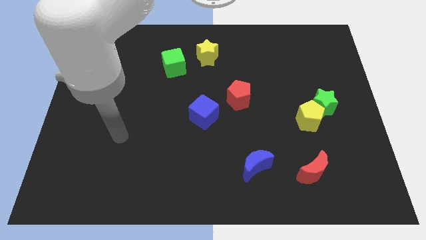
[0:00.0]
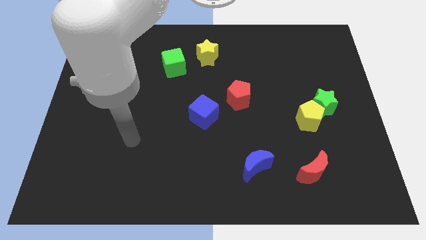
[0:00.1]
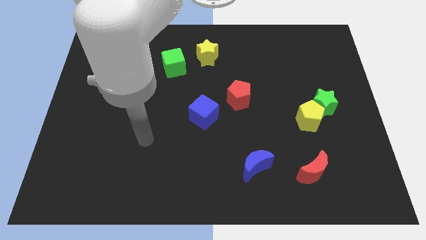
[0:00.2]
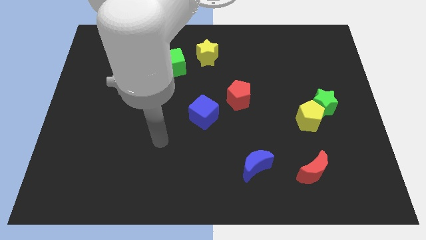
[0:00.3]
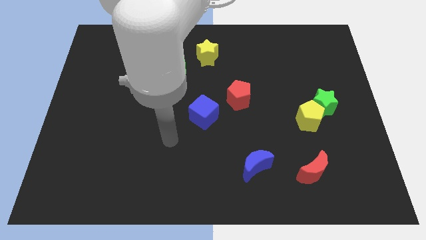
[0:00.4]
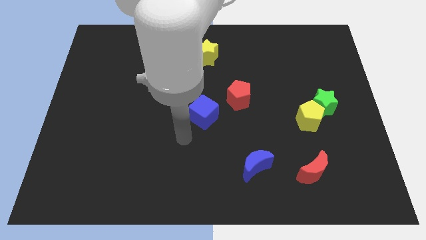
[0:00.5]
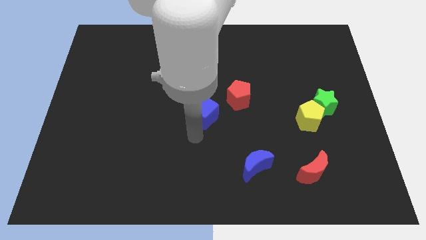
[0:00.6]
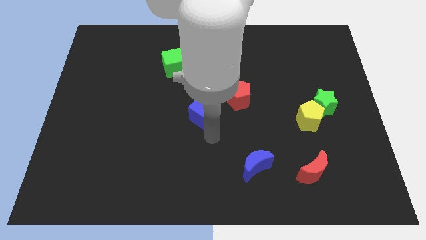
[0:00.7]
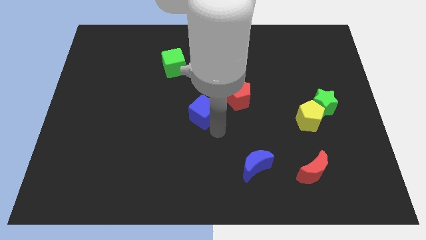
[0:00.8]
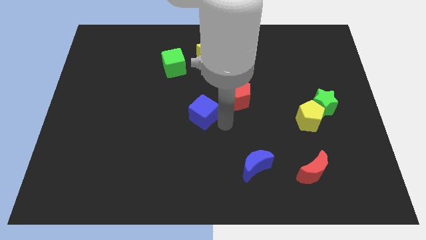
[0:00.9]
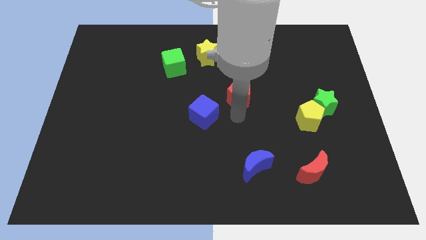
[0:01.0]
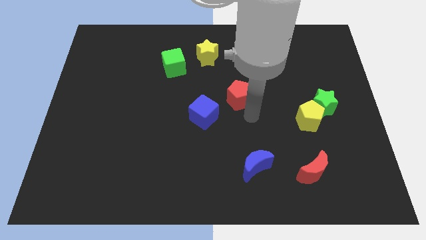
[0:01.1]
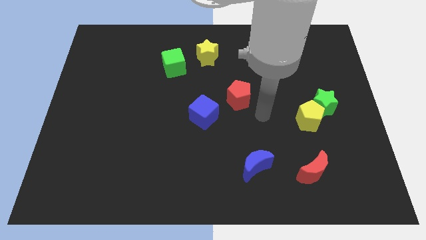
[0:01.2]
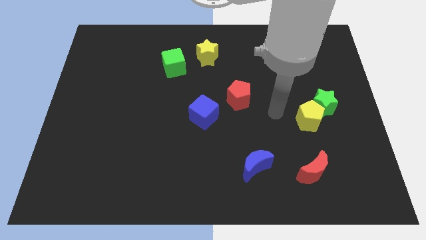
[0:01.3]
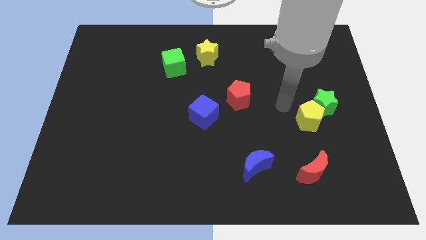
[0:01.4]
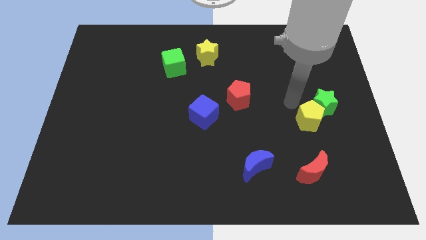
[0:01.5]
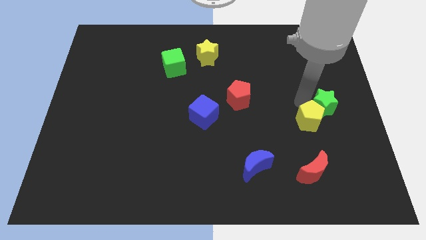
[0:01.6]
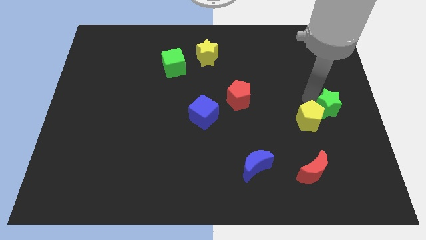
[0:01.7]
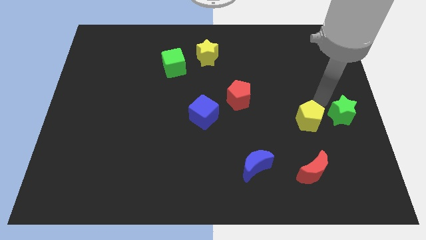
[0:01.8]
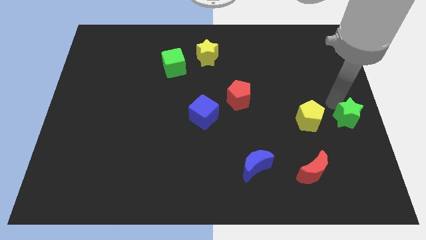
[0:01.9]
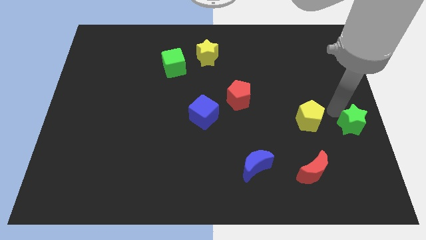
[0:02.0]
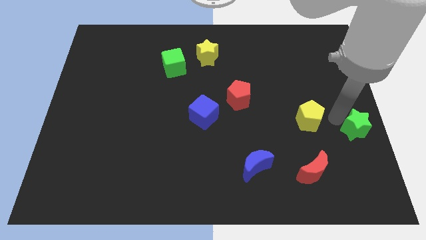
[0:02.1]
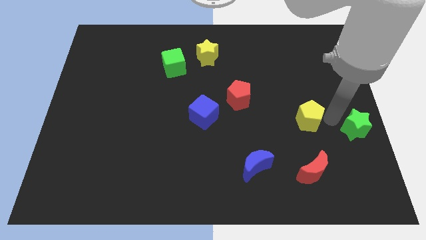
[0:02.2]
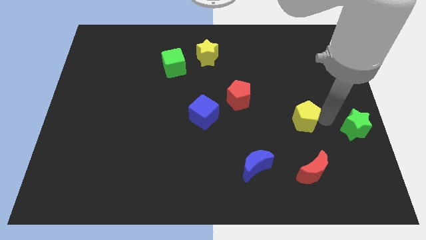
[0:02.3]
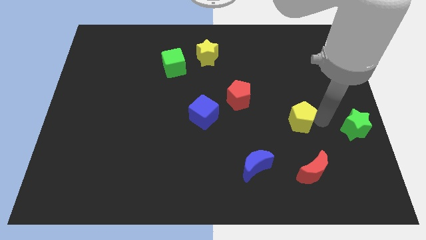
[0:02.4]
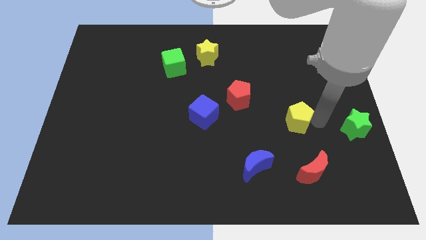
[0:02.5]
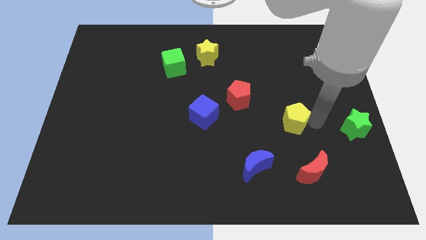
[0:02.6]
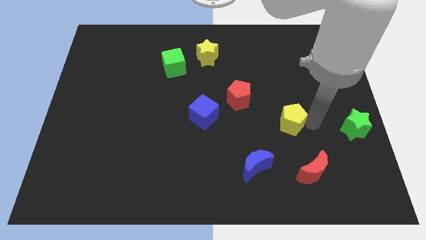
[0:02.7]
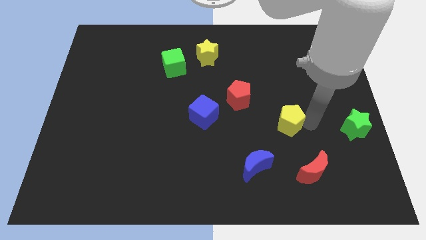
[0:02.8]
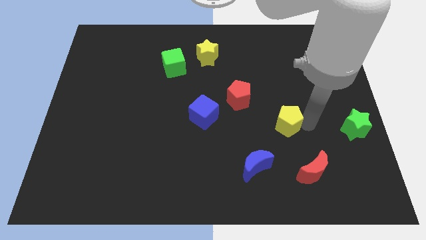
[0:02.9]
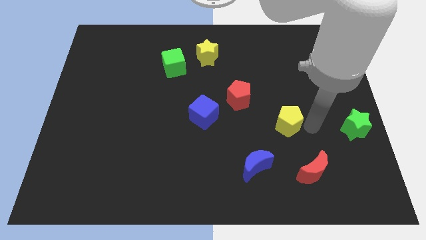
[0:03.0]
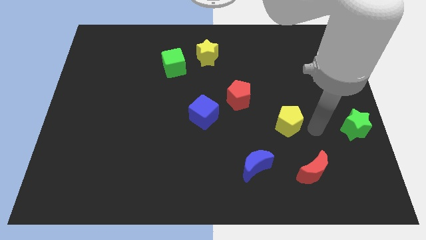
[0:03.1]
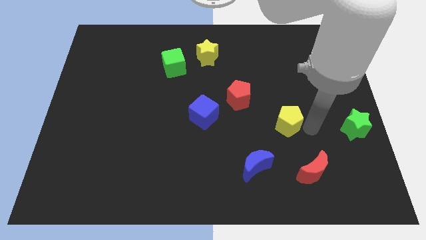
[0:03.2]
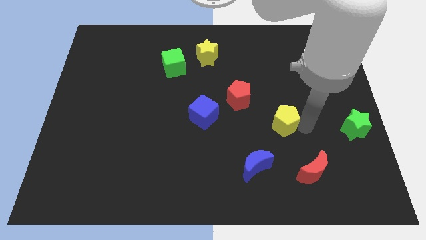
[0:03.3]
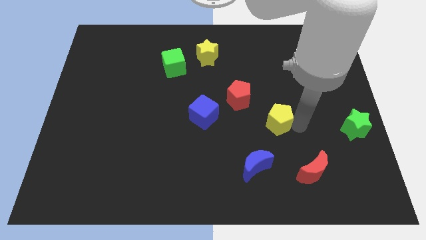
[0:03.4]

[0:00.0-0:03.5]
slightly slide the yellow pentagon to the left

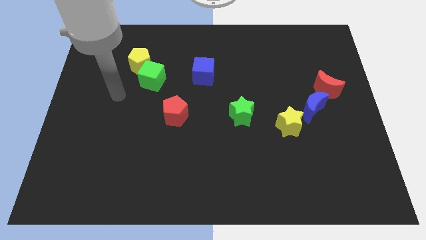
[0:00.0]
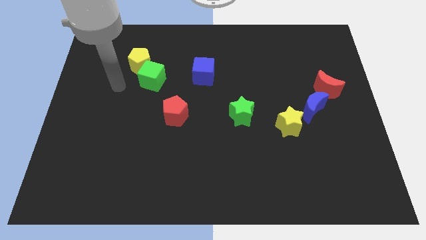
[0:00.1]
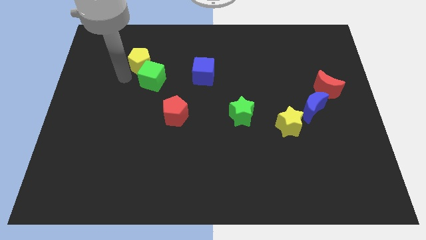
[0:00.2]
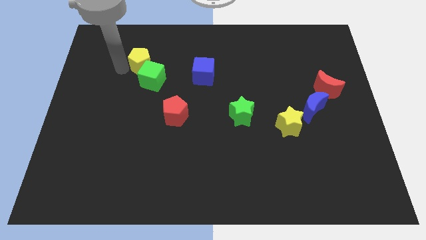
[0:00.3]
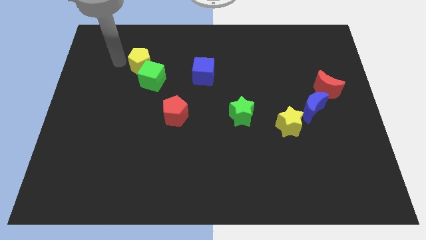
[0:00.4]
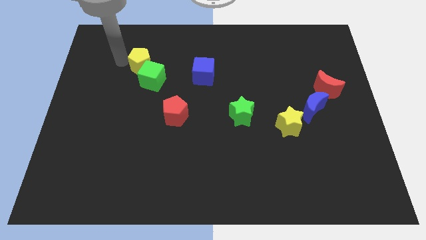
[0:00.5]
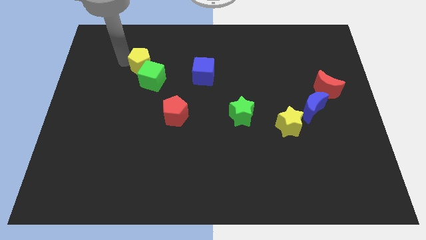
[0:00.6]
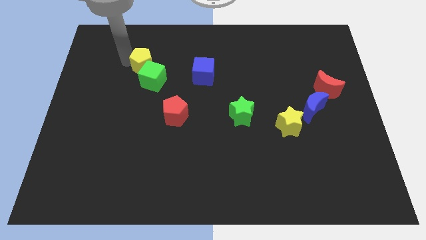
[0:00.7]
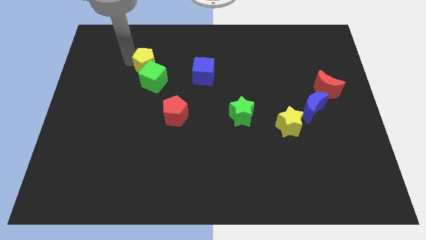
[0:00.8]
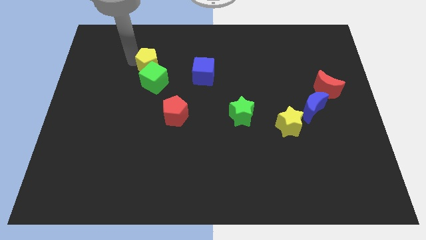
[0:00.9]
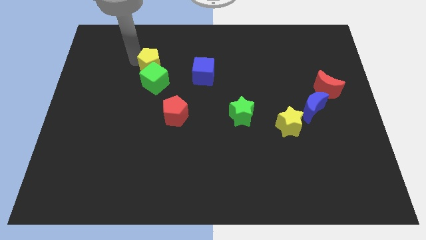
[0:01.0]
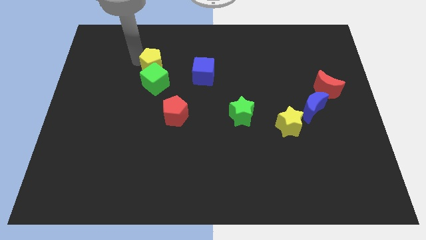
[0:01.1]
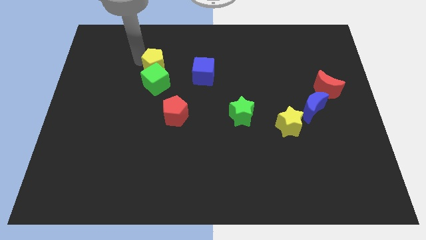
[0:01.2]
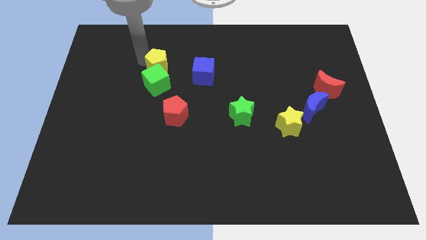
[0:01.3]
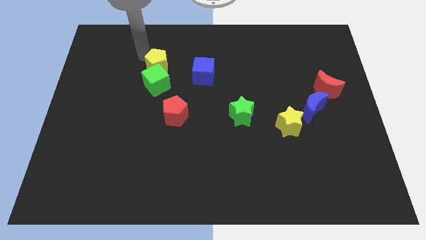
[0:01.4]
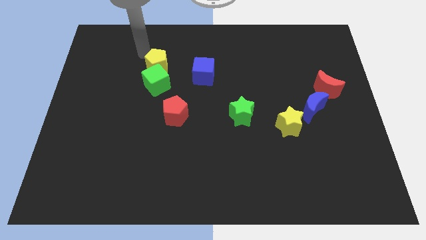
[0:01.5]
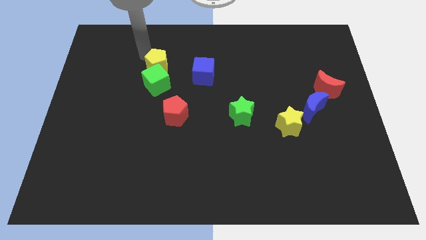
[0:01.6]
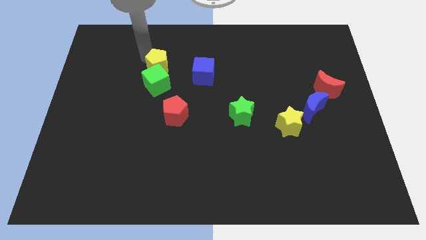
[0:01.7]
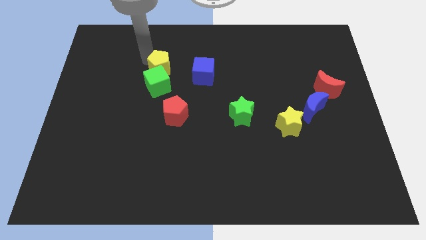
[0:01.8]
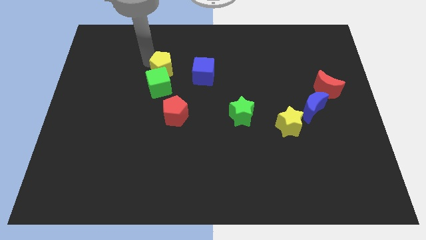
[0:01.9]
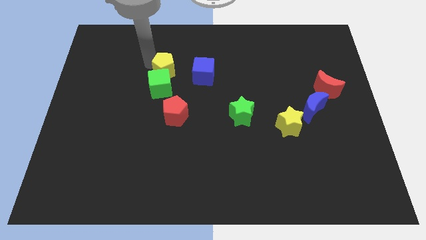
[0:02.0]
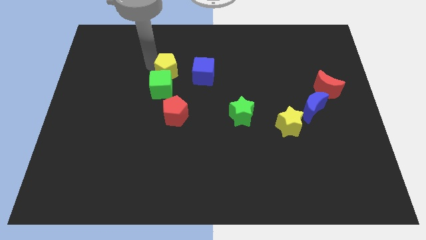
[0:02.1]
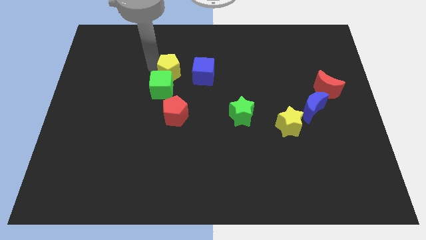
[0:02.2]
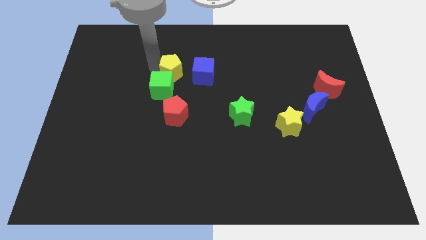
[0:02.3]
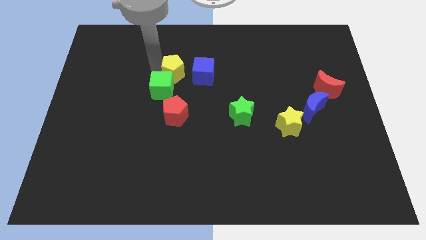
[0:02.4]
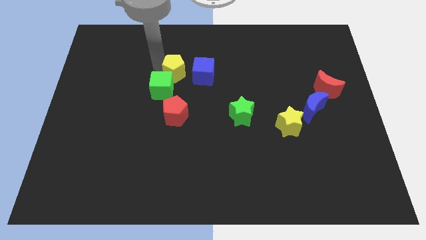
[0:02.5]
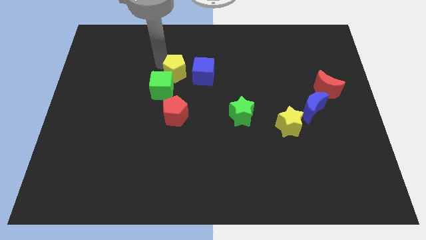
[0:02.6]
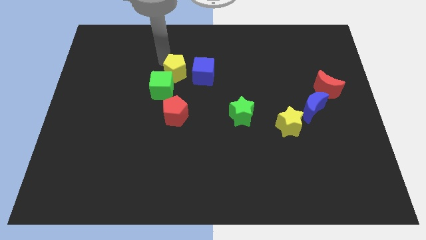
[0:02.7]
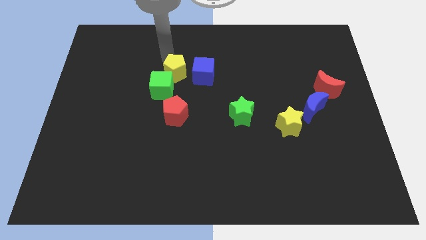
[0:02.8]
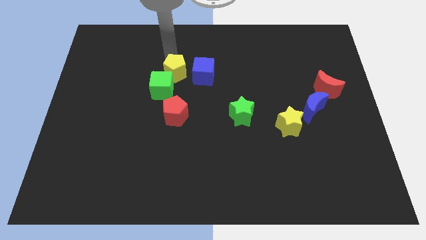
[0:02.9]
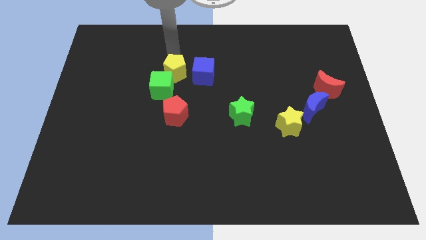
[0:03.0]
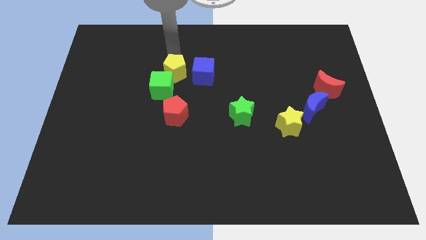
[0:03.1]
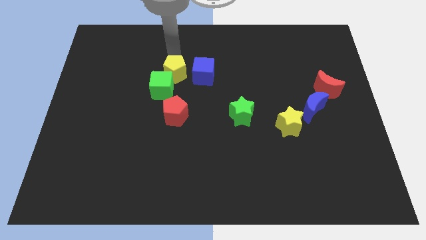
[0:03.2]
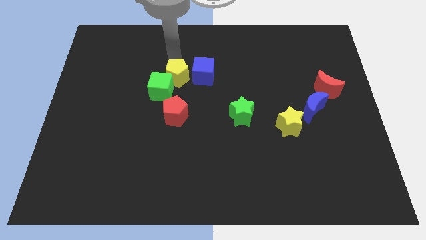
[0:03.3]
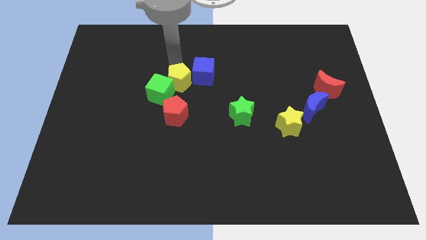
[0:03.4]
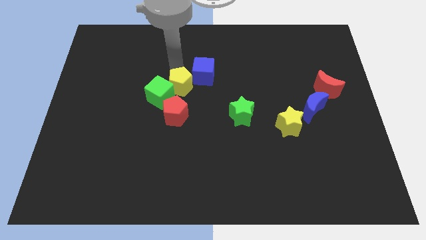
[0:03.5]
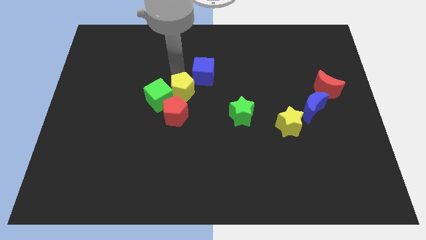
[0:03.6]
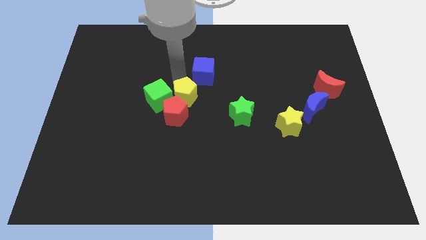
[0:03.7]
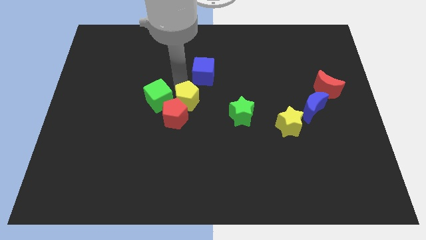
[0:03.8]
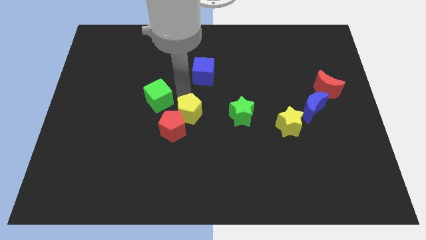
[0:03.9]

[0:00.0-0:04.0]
move the yellow pentagon downwards and right

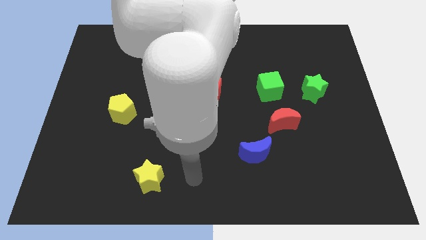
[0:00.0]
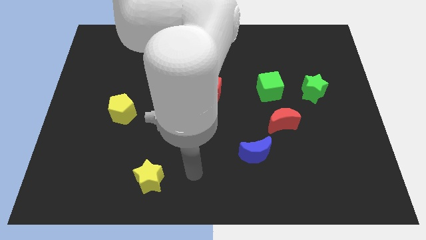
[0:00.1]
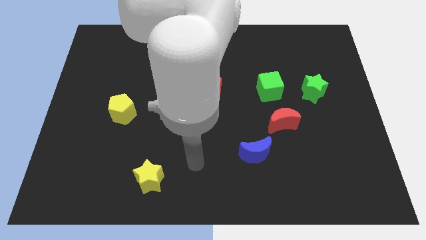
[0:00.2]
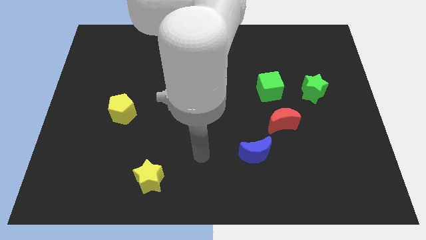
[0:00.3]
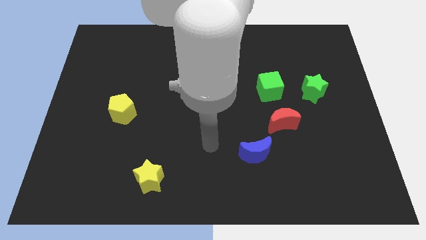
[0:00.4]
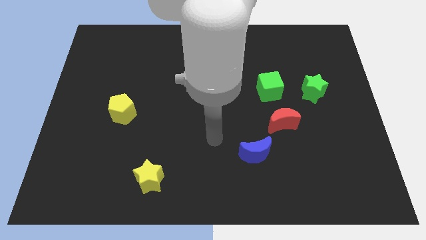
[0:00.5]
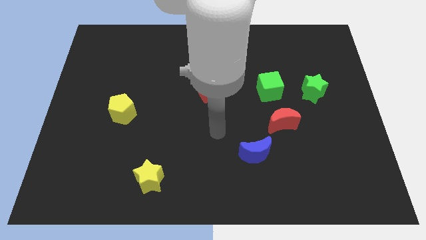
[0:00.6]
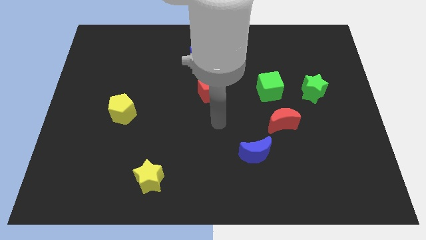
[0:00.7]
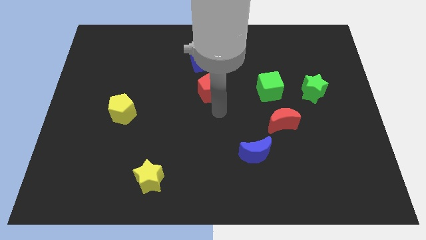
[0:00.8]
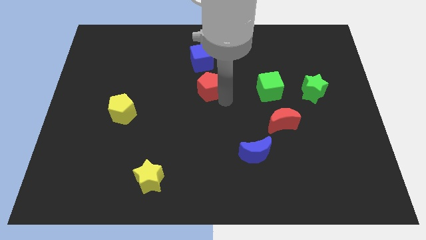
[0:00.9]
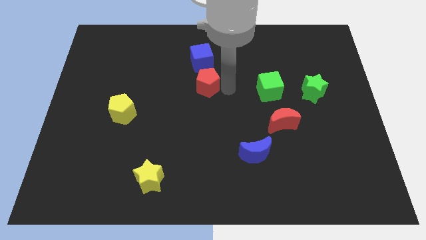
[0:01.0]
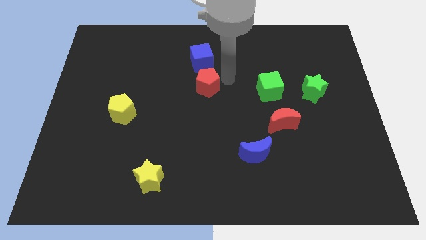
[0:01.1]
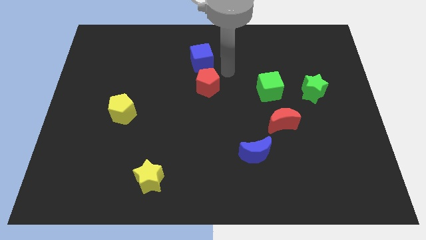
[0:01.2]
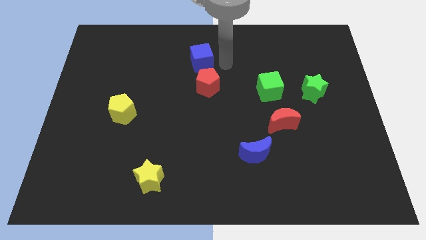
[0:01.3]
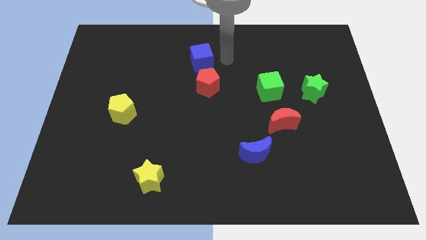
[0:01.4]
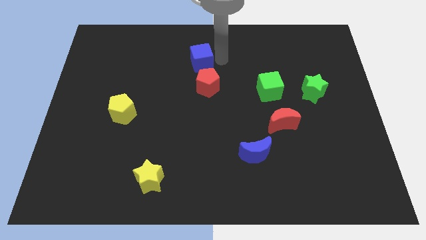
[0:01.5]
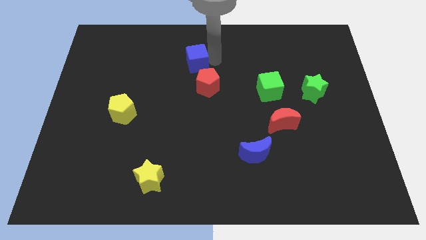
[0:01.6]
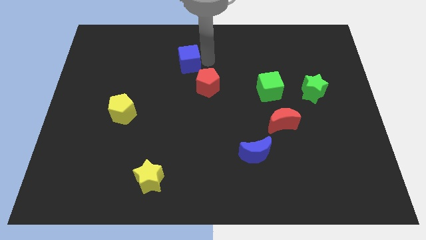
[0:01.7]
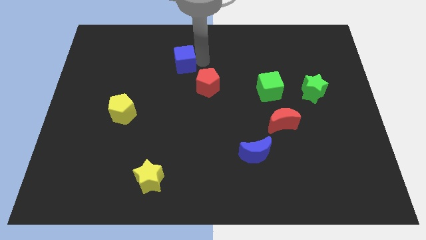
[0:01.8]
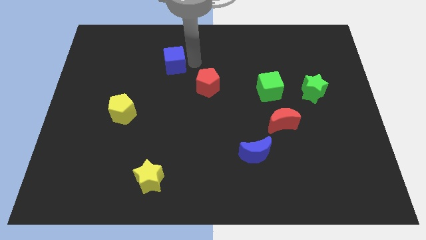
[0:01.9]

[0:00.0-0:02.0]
move the blue cube to the left a bit
